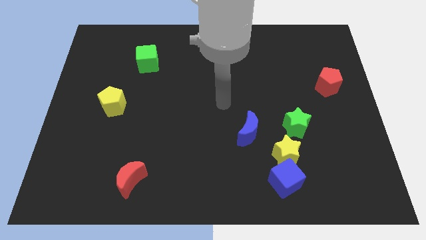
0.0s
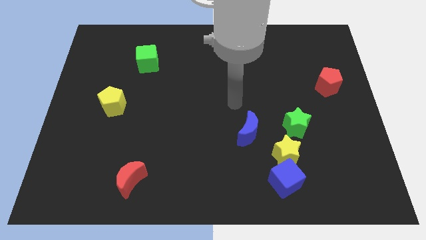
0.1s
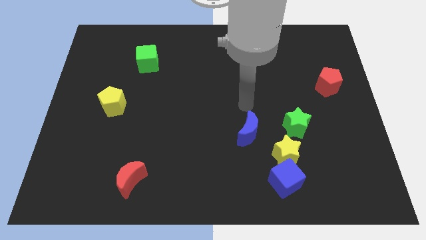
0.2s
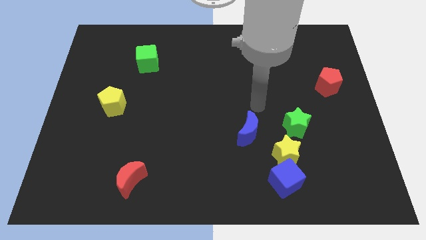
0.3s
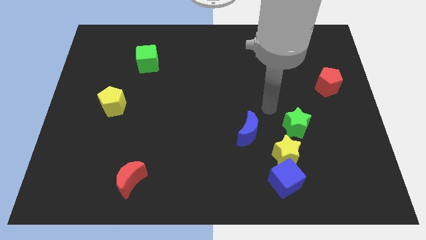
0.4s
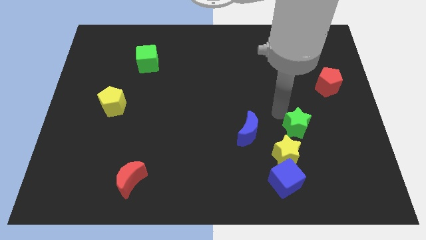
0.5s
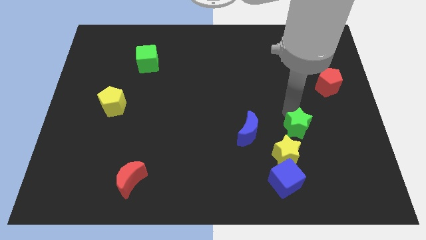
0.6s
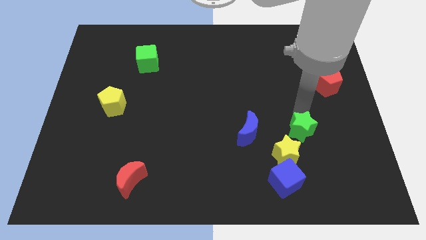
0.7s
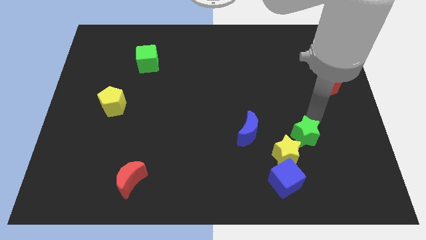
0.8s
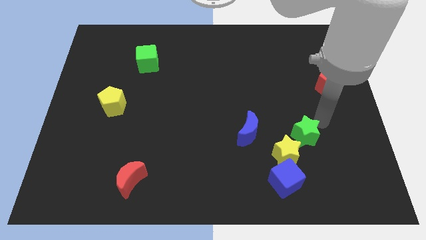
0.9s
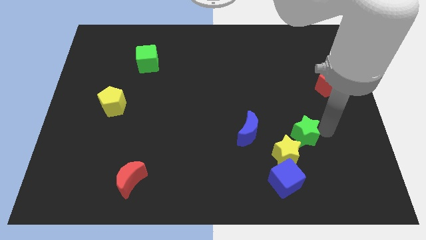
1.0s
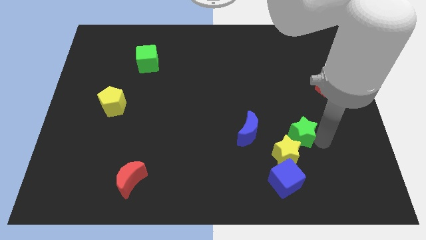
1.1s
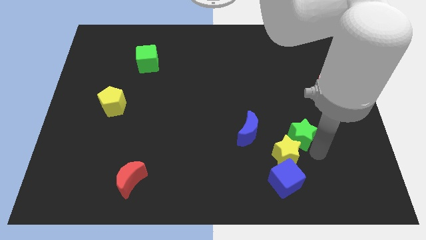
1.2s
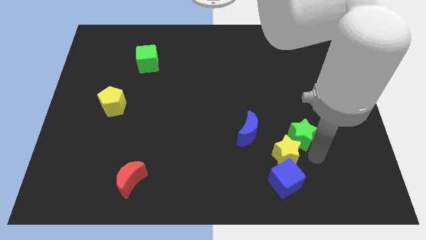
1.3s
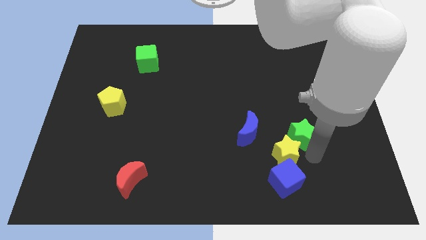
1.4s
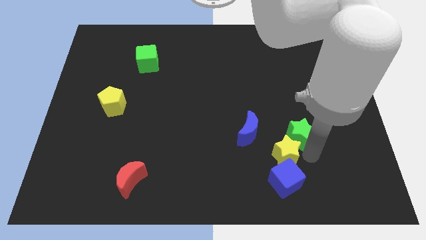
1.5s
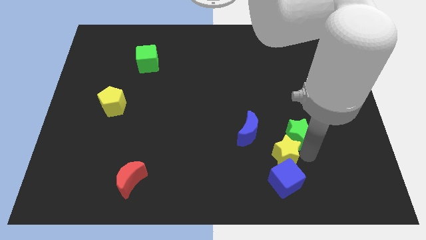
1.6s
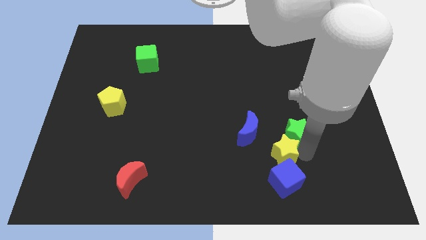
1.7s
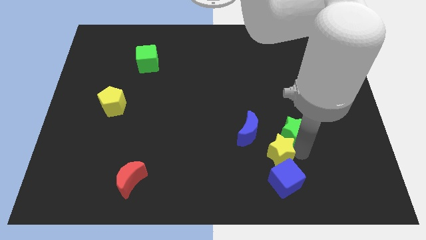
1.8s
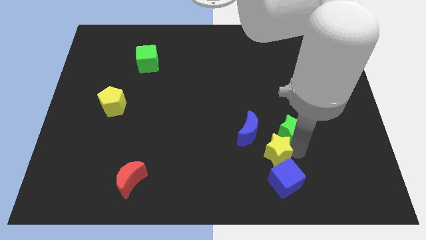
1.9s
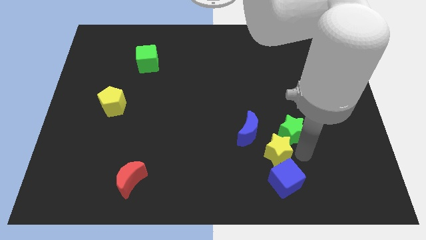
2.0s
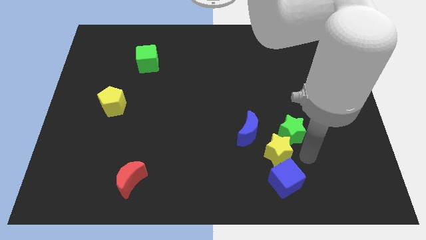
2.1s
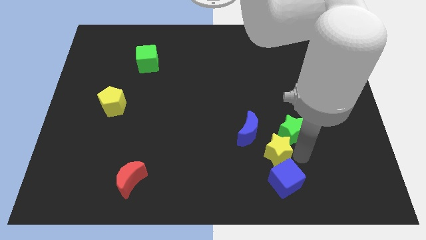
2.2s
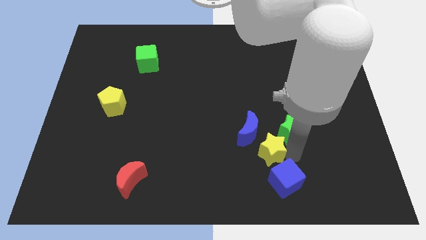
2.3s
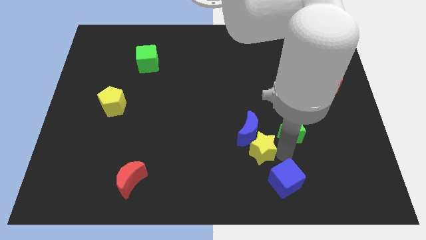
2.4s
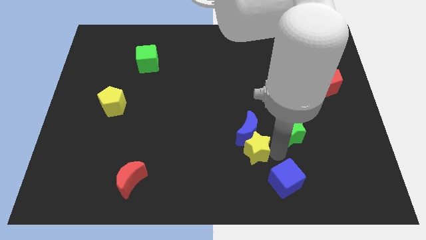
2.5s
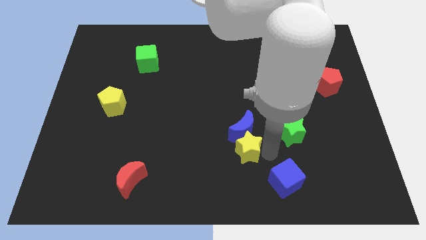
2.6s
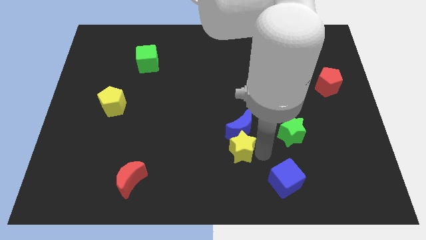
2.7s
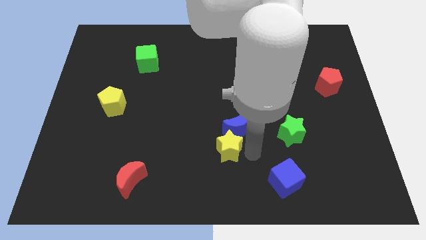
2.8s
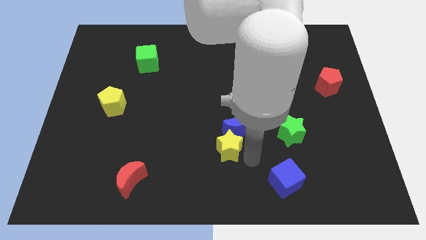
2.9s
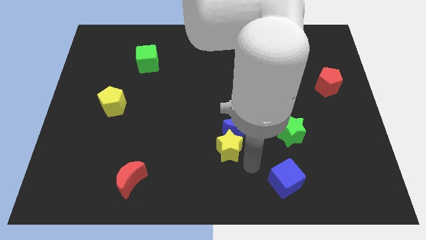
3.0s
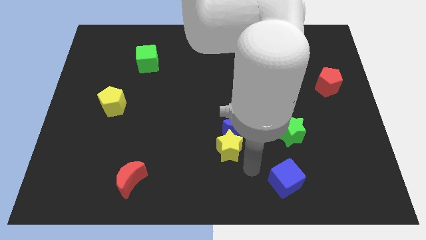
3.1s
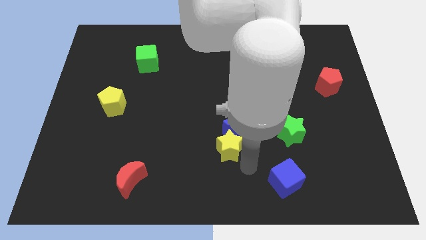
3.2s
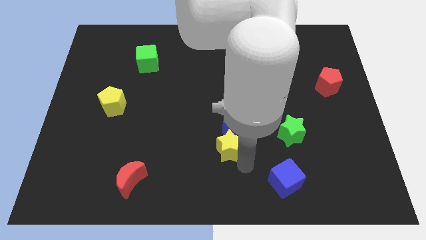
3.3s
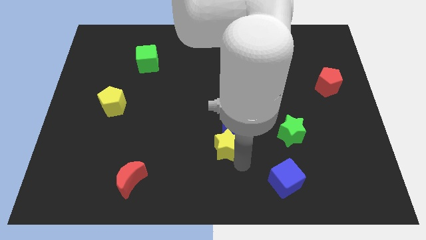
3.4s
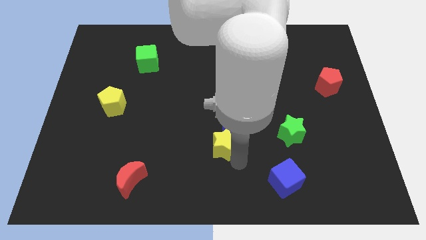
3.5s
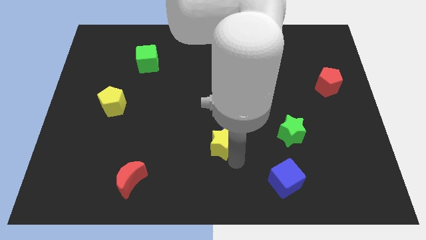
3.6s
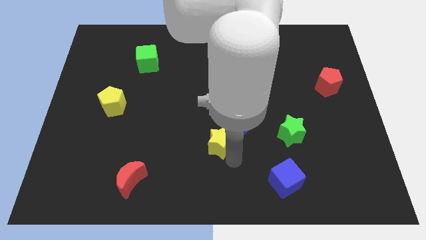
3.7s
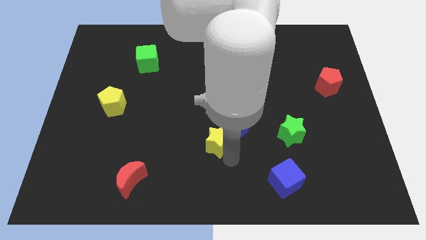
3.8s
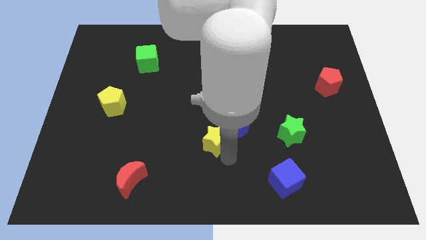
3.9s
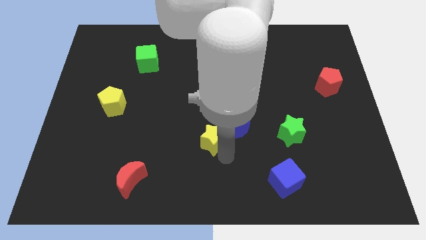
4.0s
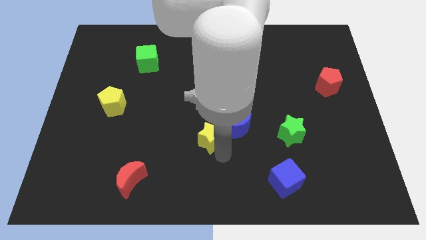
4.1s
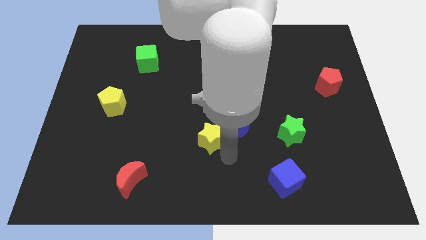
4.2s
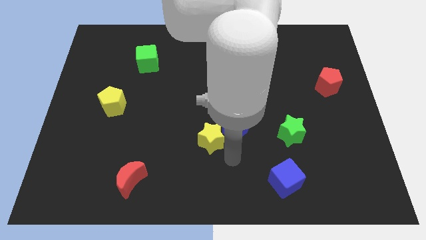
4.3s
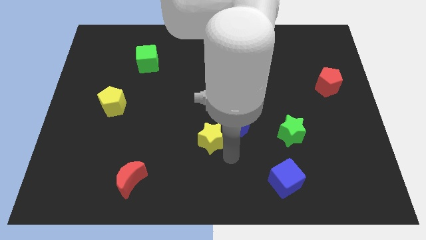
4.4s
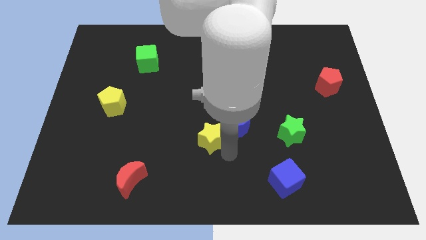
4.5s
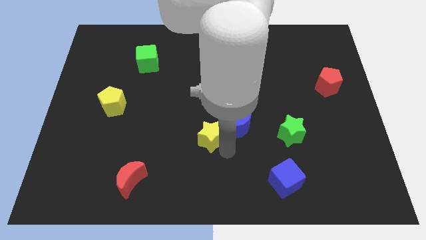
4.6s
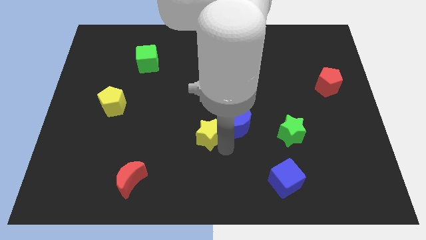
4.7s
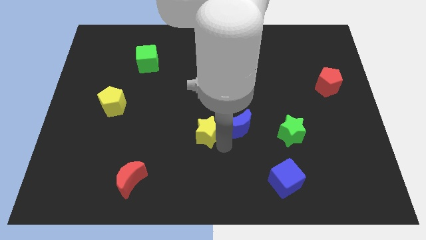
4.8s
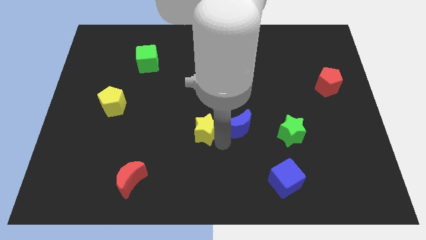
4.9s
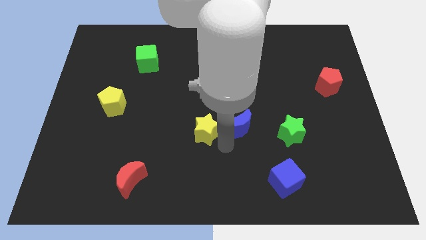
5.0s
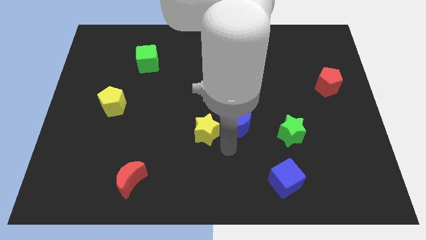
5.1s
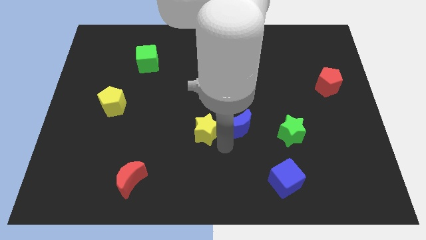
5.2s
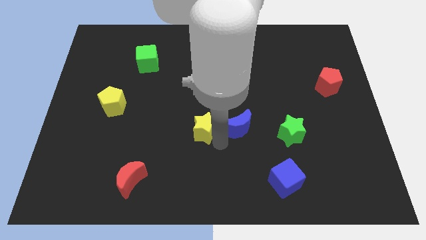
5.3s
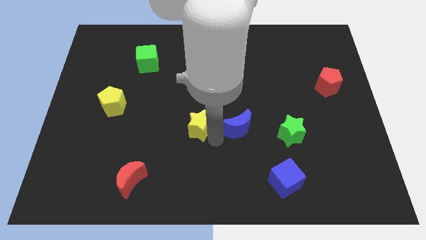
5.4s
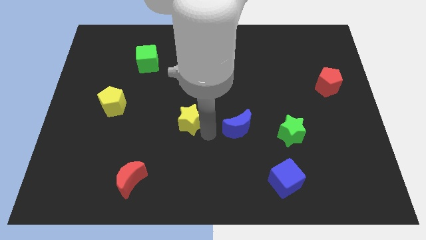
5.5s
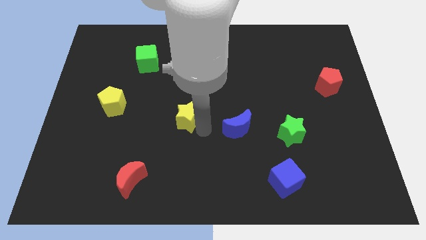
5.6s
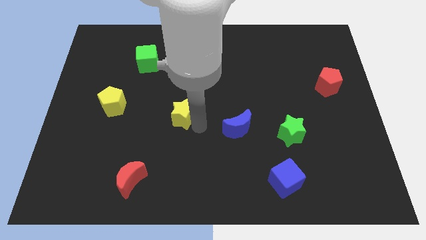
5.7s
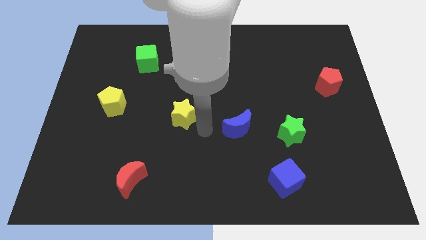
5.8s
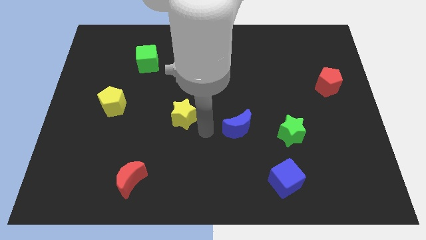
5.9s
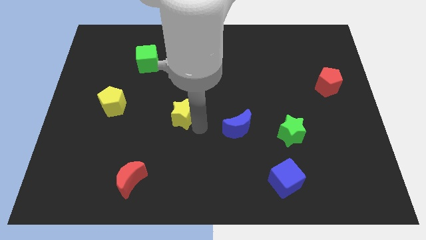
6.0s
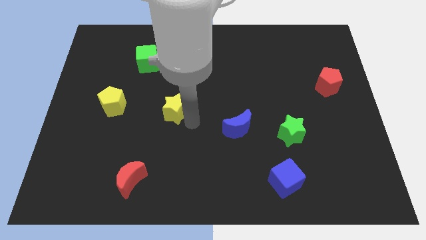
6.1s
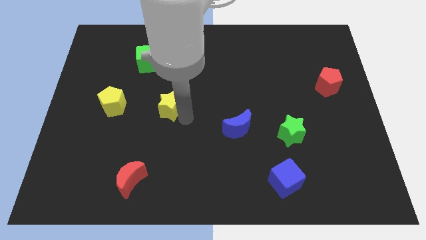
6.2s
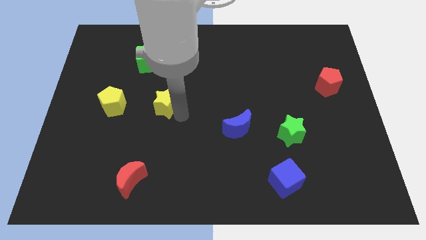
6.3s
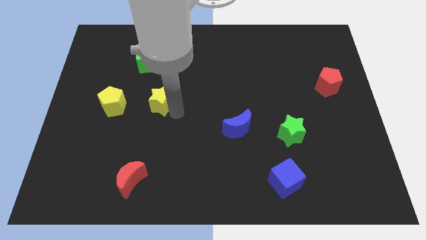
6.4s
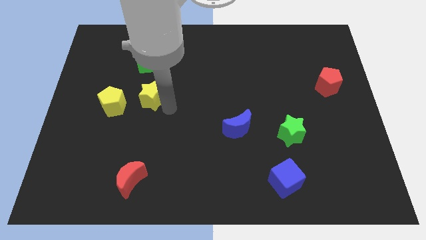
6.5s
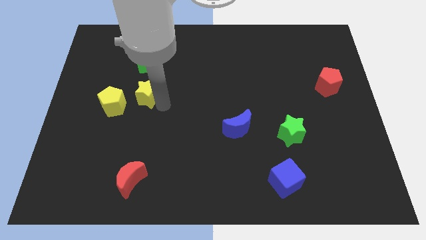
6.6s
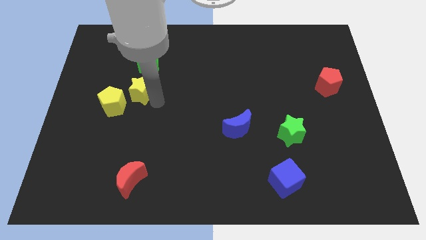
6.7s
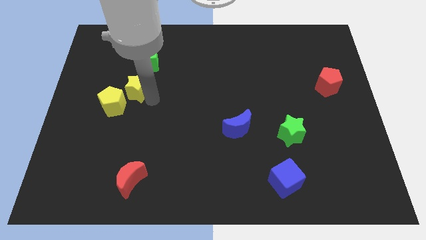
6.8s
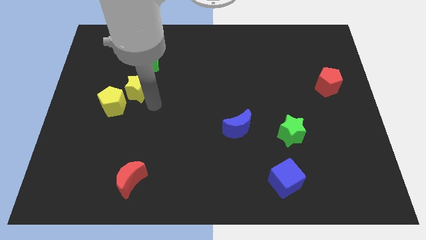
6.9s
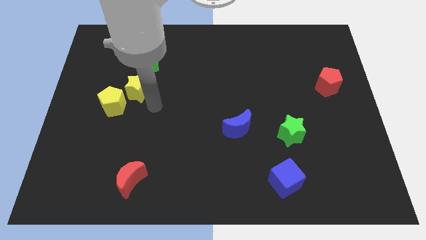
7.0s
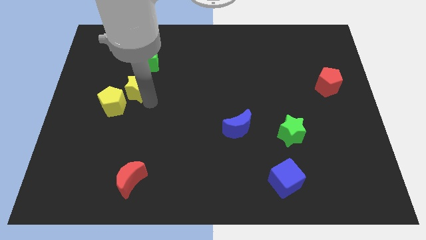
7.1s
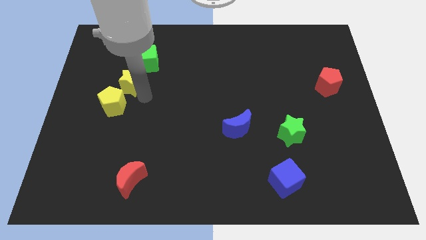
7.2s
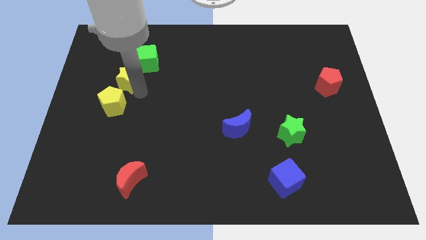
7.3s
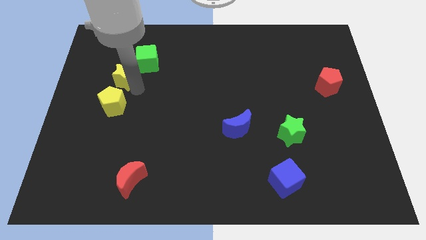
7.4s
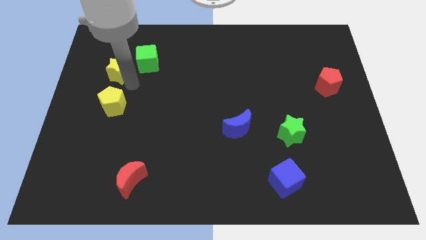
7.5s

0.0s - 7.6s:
put the yellow star to the left of the green cube
